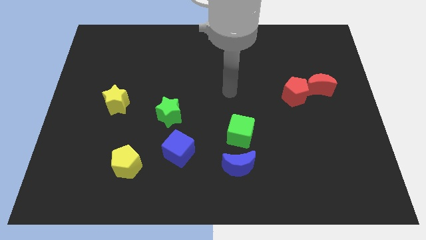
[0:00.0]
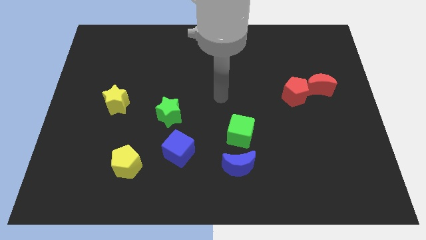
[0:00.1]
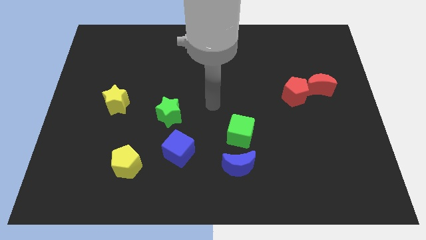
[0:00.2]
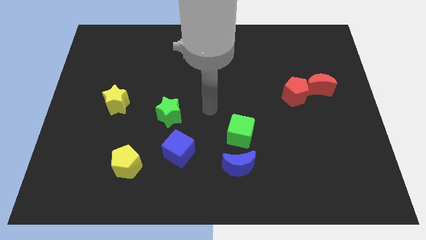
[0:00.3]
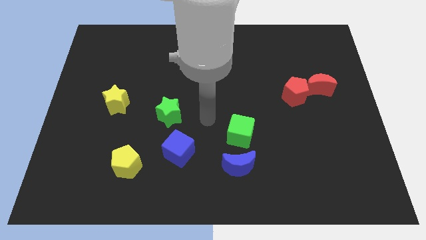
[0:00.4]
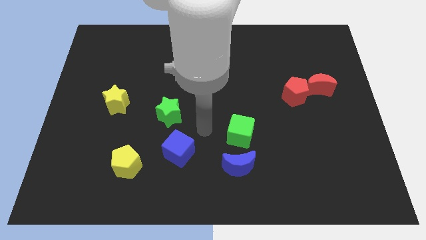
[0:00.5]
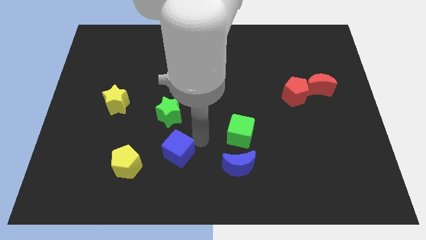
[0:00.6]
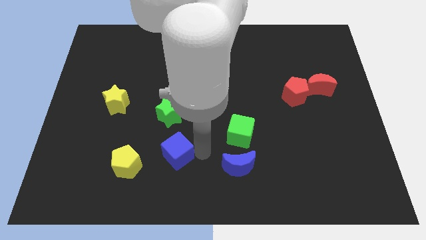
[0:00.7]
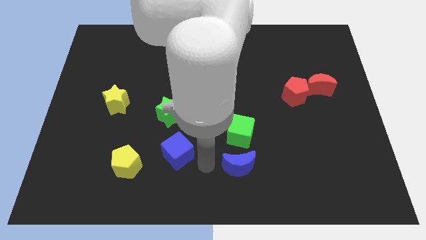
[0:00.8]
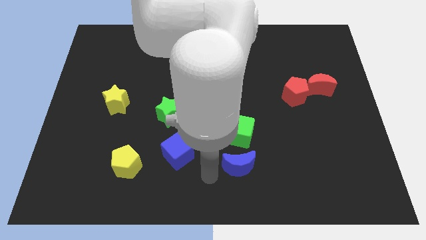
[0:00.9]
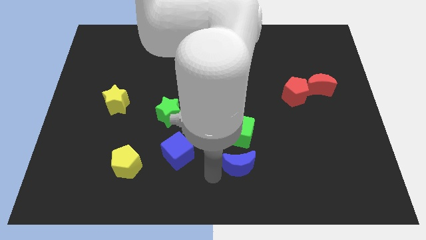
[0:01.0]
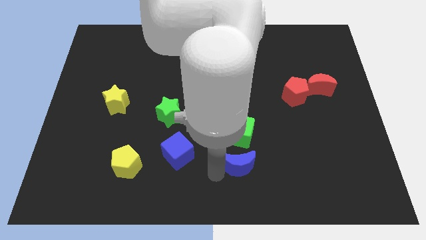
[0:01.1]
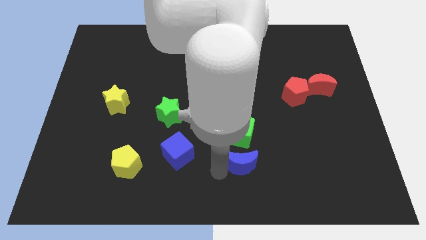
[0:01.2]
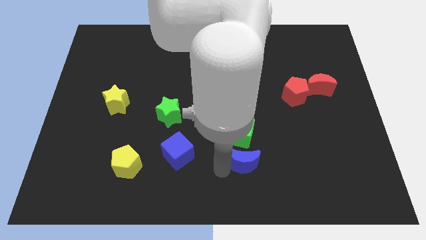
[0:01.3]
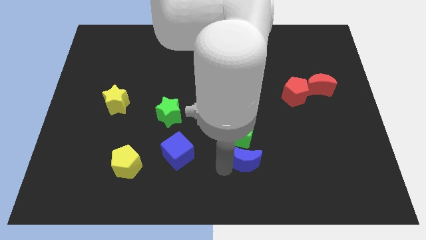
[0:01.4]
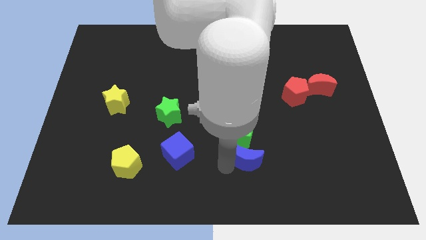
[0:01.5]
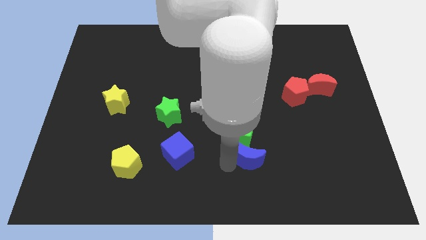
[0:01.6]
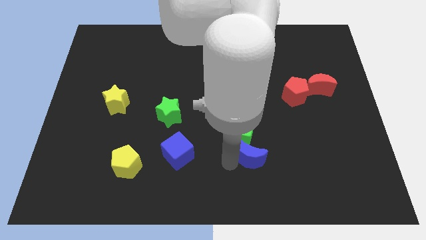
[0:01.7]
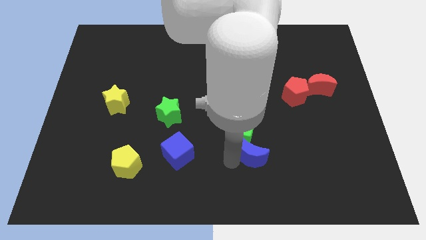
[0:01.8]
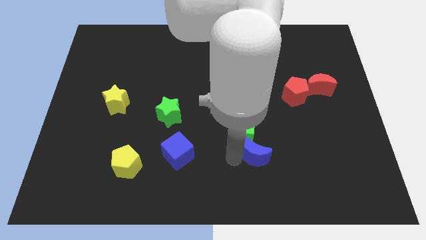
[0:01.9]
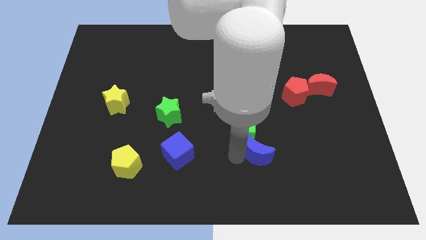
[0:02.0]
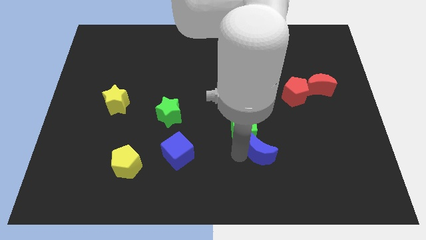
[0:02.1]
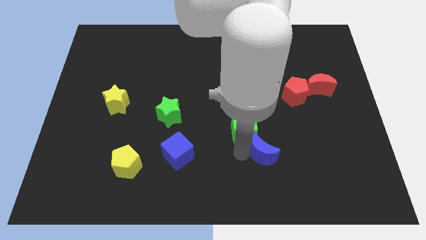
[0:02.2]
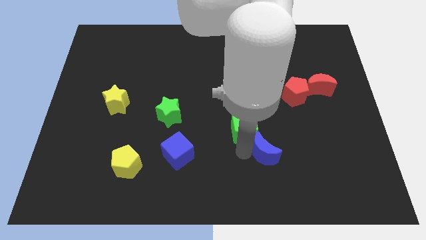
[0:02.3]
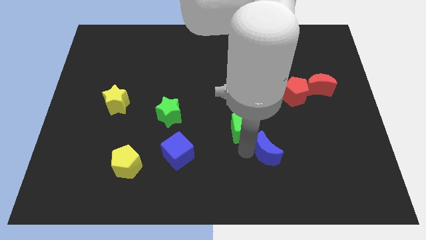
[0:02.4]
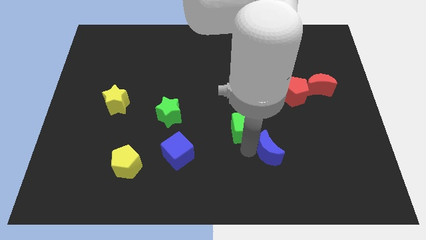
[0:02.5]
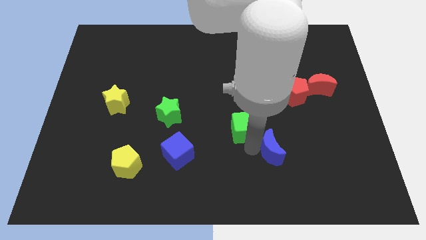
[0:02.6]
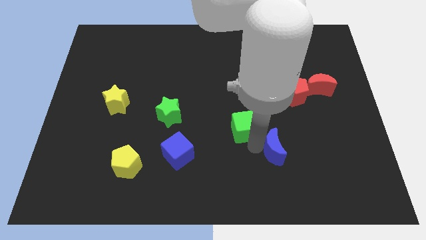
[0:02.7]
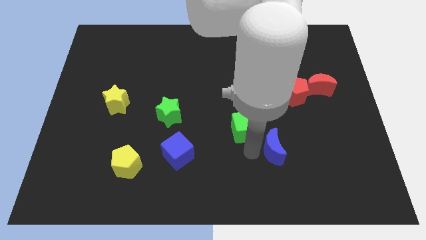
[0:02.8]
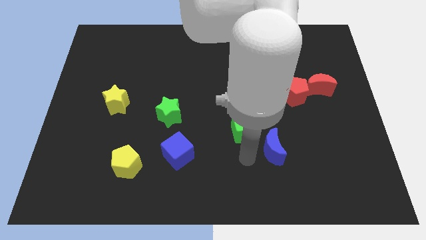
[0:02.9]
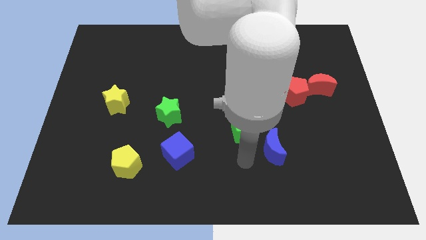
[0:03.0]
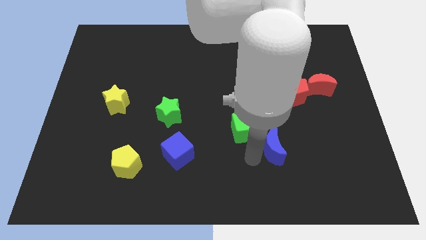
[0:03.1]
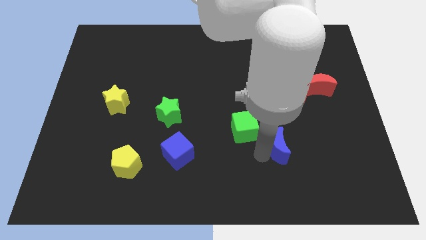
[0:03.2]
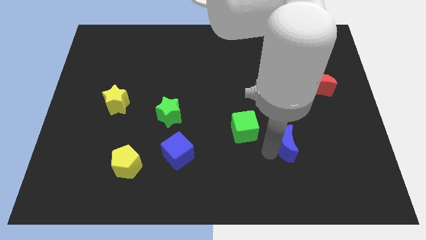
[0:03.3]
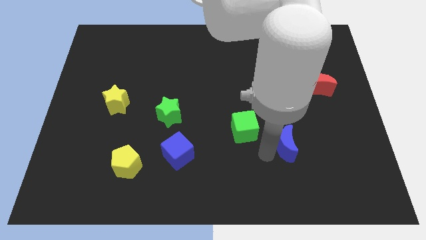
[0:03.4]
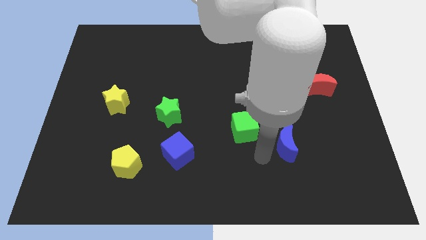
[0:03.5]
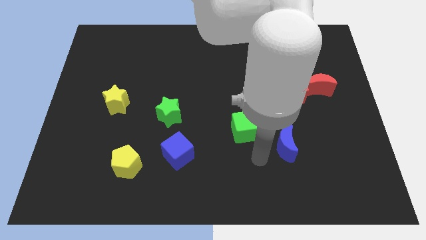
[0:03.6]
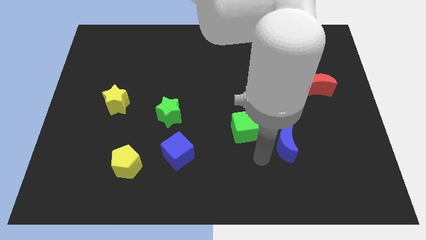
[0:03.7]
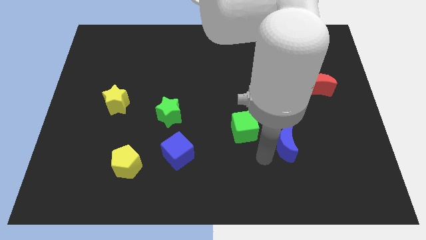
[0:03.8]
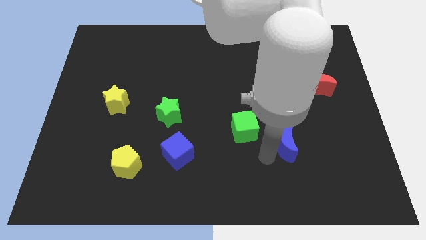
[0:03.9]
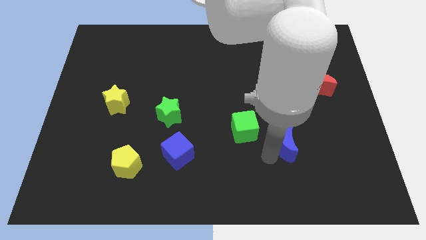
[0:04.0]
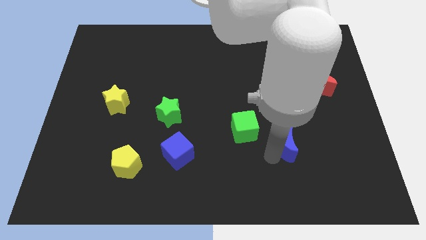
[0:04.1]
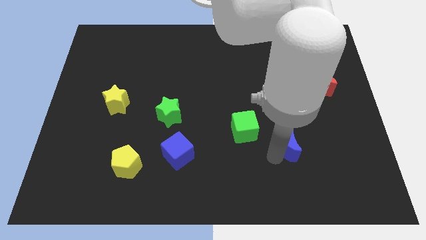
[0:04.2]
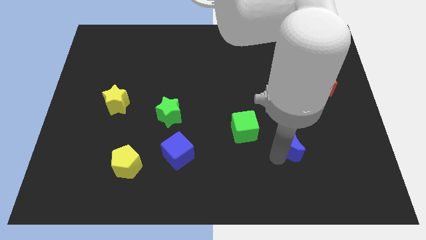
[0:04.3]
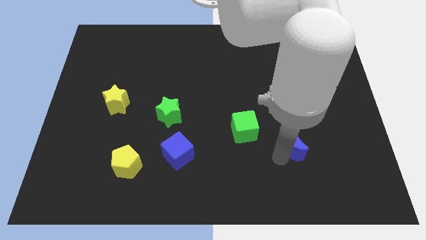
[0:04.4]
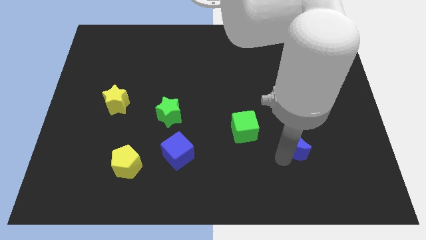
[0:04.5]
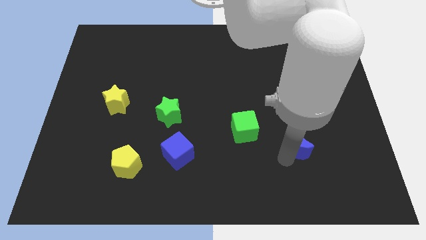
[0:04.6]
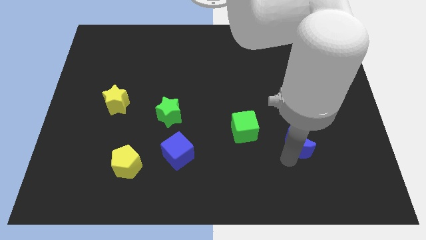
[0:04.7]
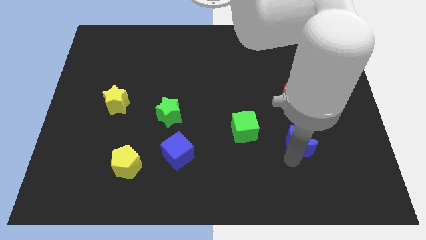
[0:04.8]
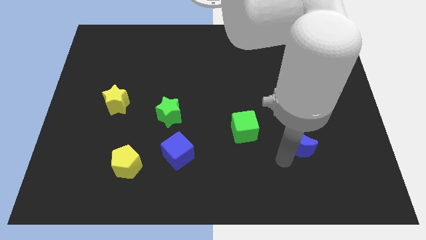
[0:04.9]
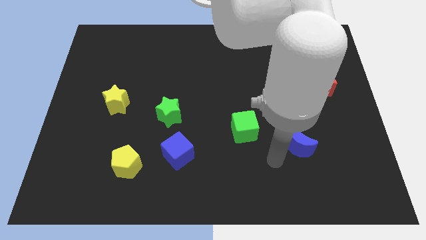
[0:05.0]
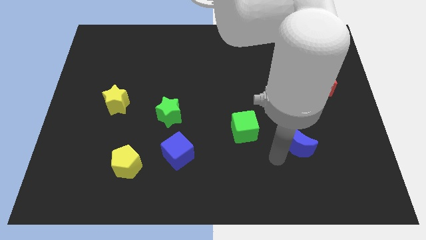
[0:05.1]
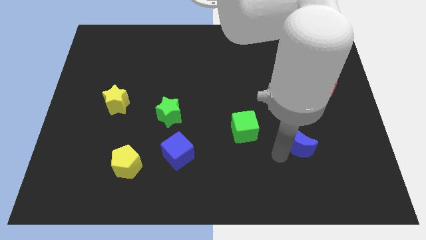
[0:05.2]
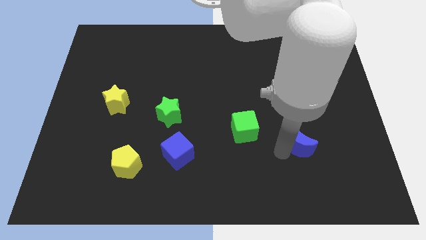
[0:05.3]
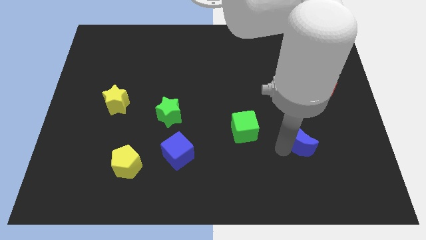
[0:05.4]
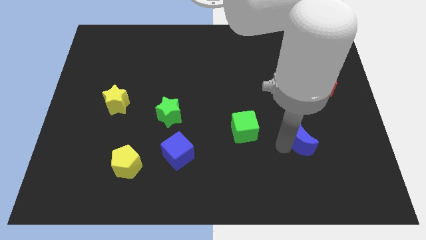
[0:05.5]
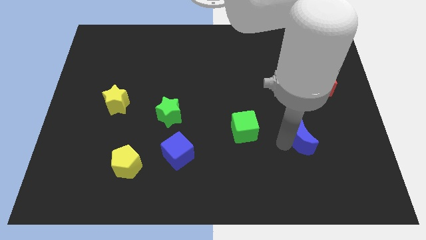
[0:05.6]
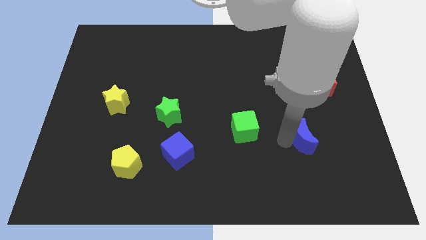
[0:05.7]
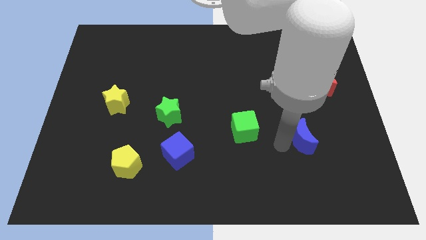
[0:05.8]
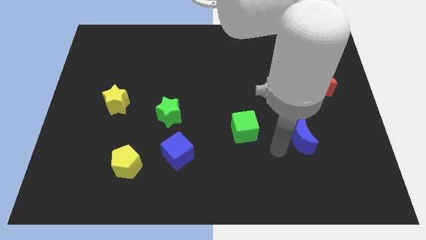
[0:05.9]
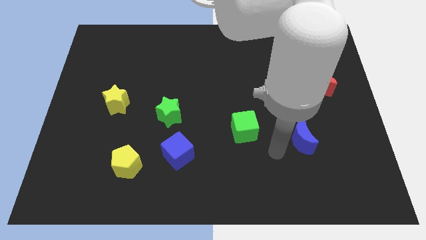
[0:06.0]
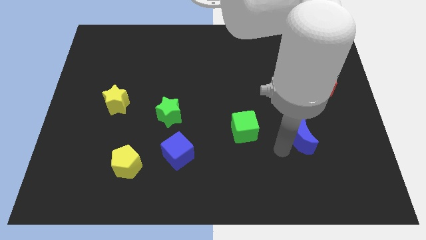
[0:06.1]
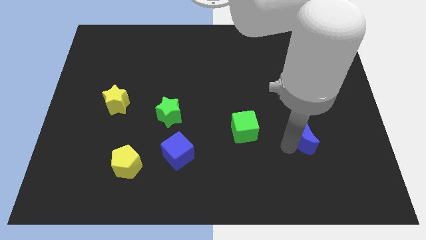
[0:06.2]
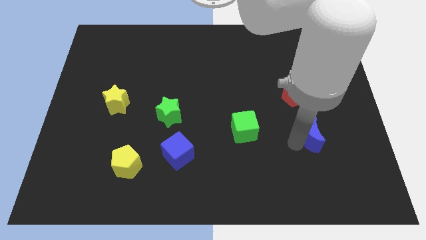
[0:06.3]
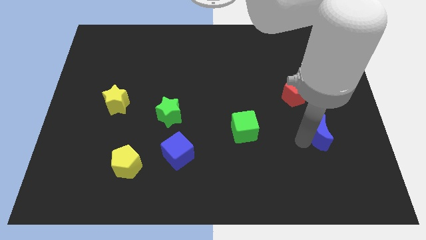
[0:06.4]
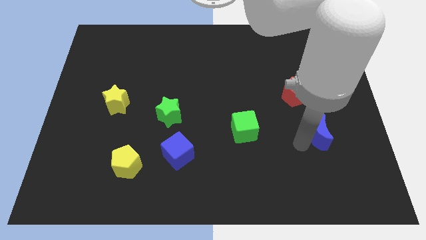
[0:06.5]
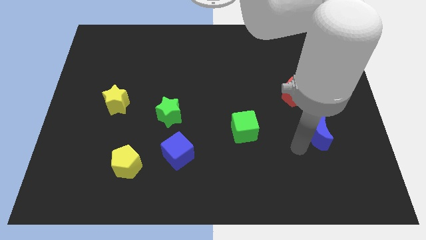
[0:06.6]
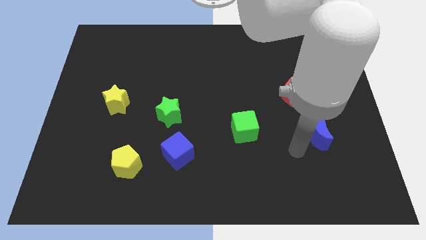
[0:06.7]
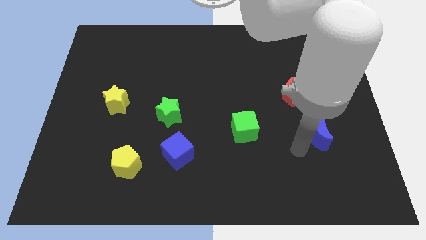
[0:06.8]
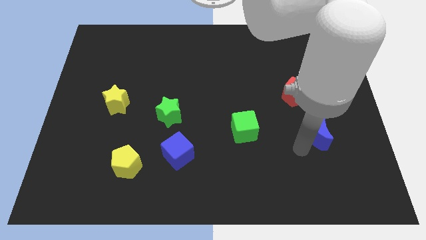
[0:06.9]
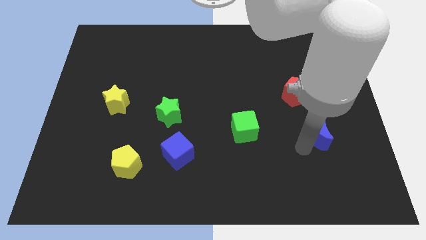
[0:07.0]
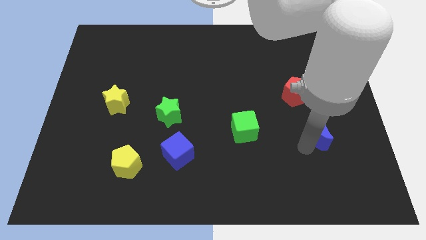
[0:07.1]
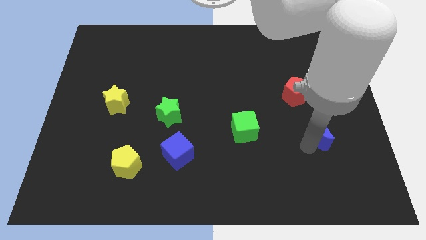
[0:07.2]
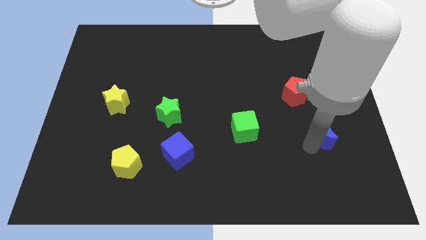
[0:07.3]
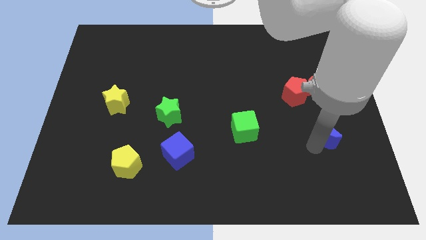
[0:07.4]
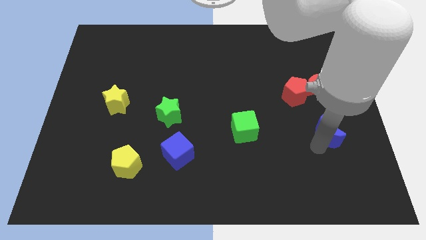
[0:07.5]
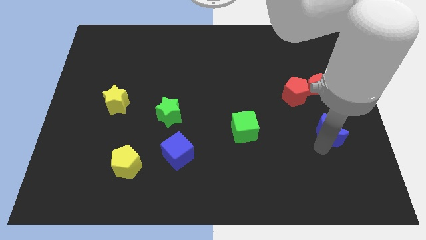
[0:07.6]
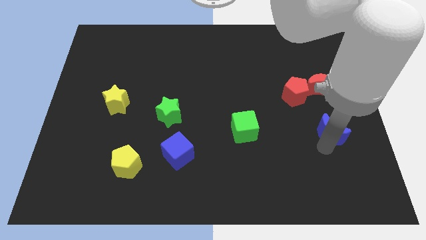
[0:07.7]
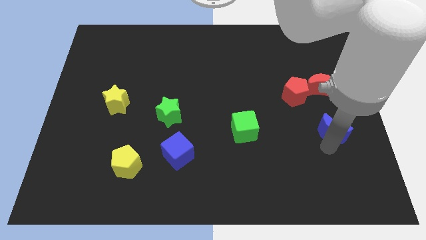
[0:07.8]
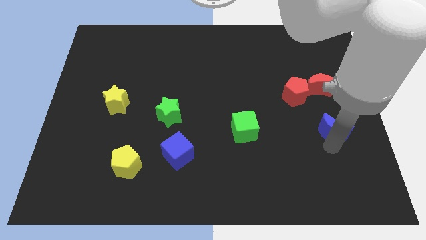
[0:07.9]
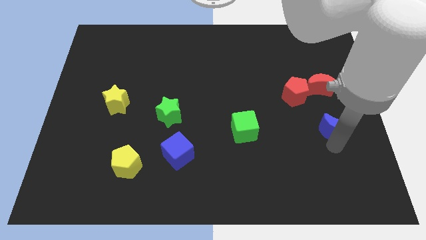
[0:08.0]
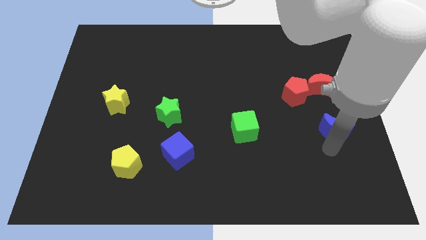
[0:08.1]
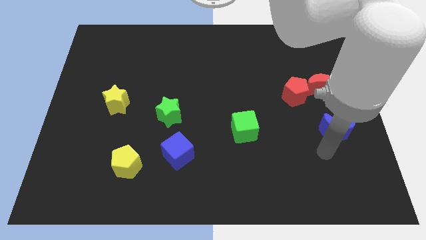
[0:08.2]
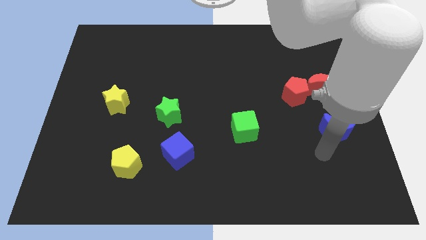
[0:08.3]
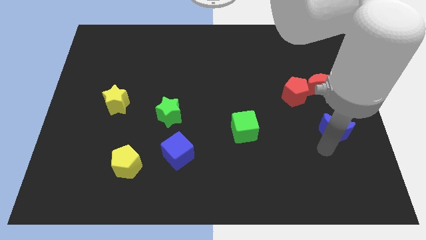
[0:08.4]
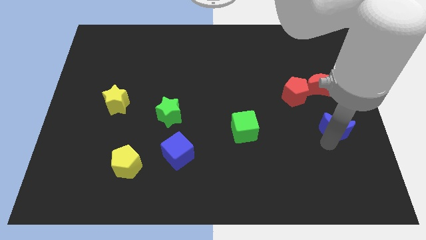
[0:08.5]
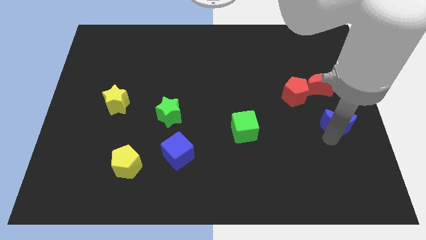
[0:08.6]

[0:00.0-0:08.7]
slide the blue moon to the center right
